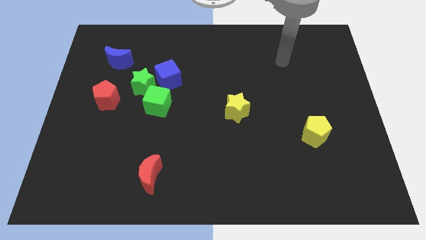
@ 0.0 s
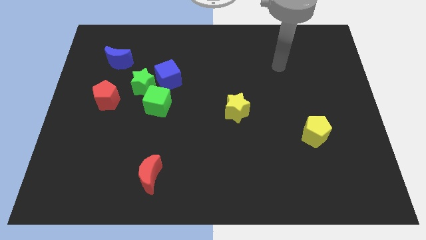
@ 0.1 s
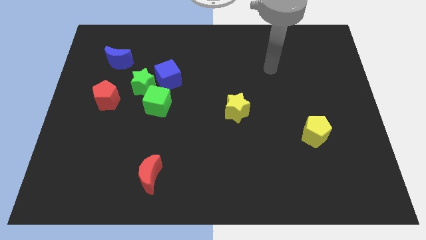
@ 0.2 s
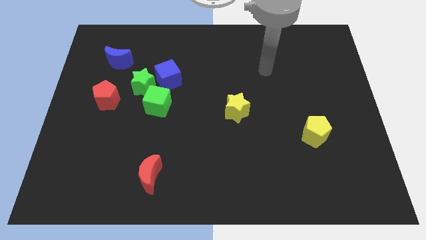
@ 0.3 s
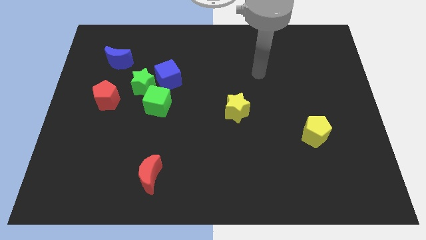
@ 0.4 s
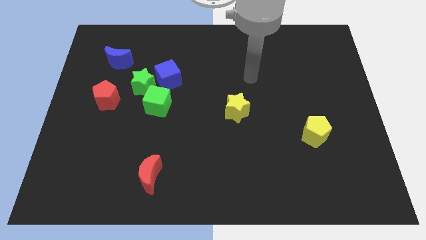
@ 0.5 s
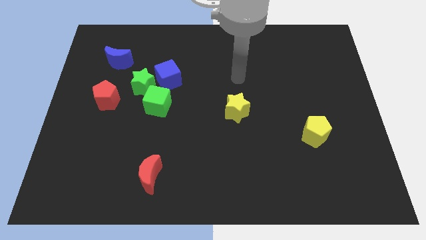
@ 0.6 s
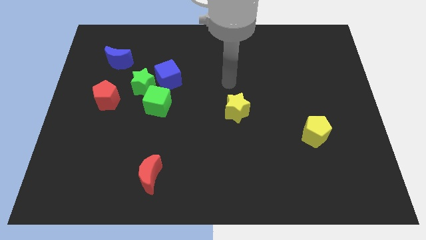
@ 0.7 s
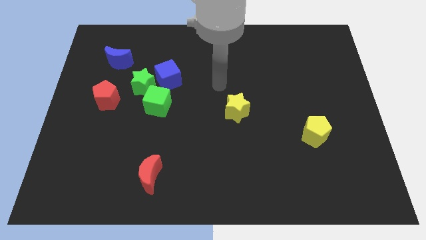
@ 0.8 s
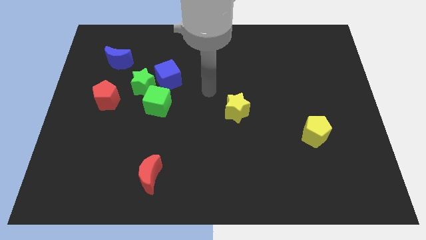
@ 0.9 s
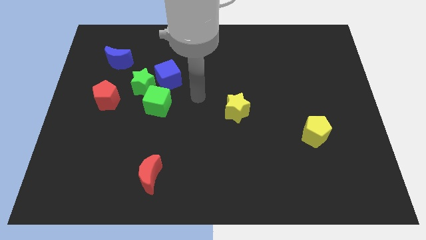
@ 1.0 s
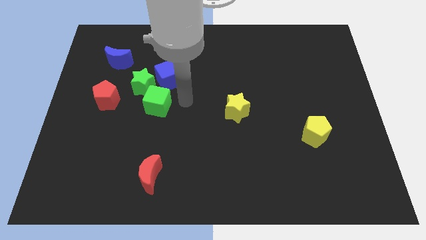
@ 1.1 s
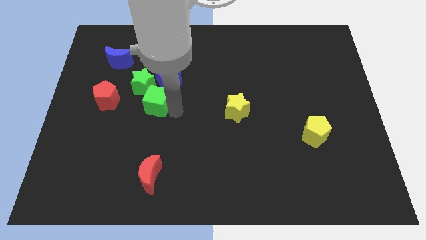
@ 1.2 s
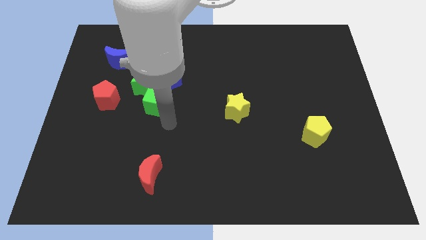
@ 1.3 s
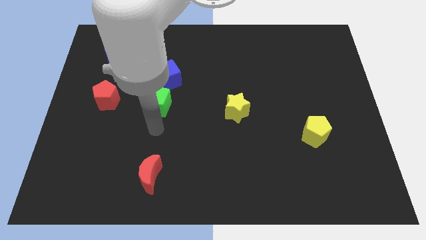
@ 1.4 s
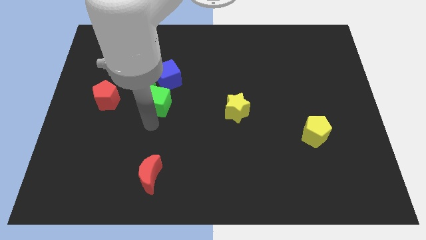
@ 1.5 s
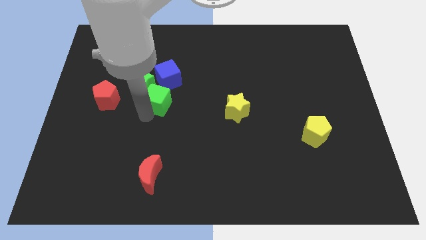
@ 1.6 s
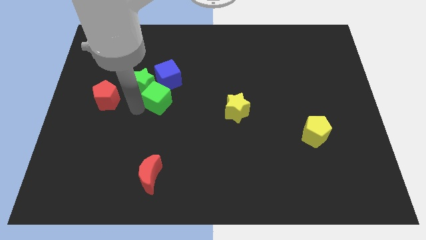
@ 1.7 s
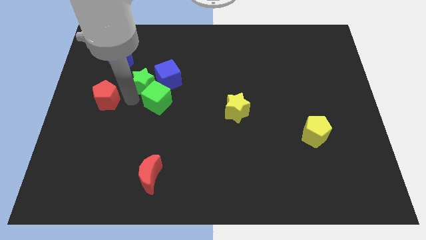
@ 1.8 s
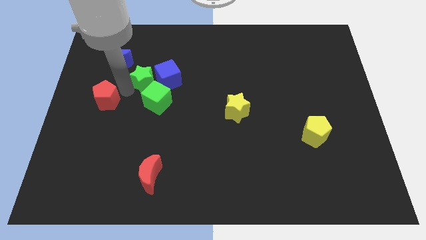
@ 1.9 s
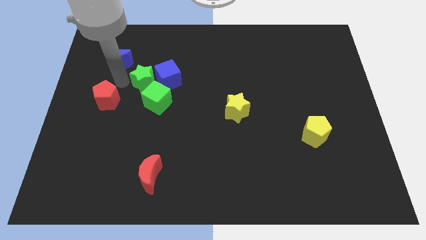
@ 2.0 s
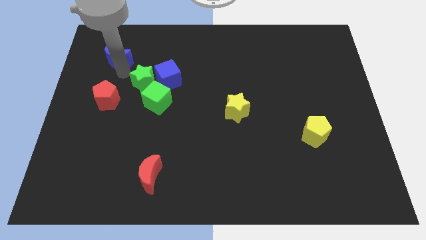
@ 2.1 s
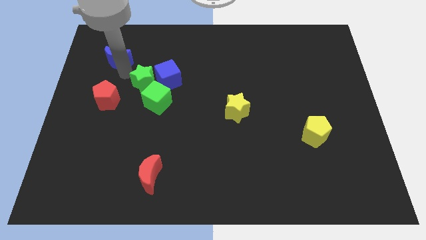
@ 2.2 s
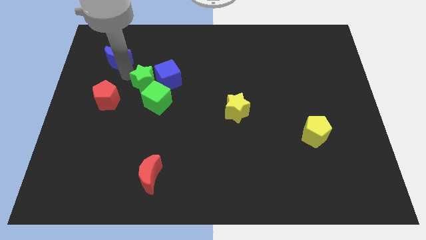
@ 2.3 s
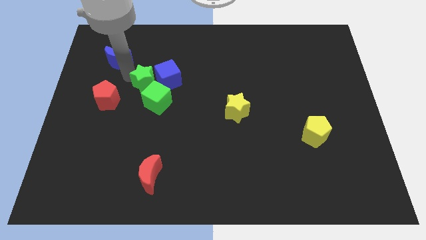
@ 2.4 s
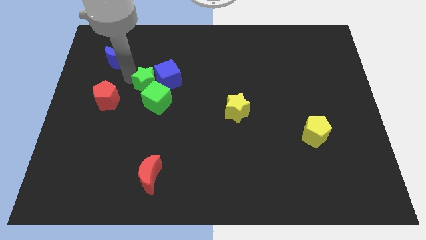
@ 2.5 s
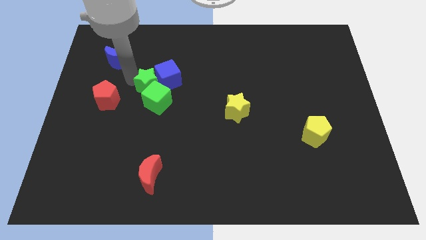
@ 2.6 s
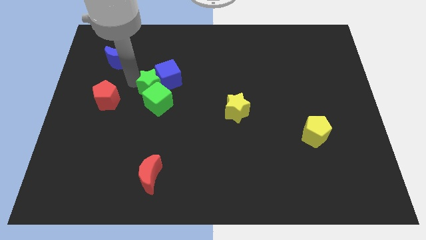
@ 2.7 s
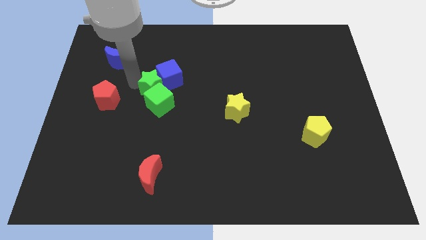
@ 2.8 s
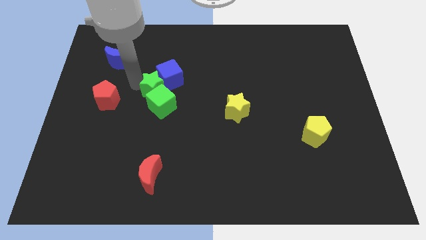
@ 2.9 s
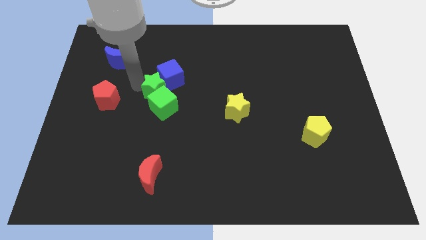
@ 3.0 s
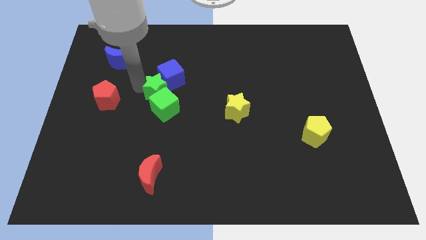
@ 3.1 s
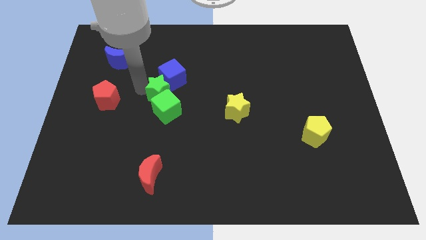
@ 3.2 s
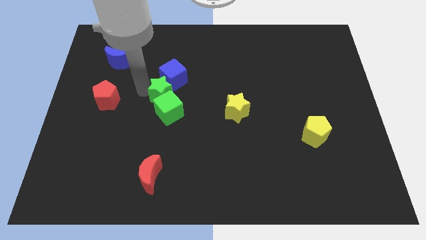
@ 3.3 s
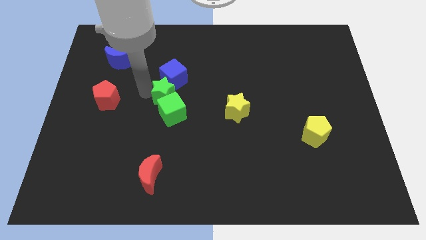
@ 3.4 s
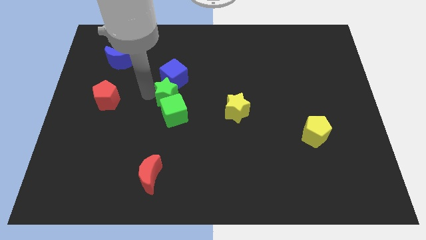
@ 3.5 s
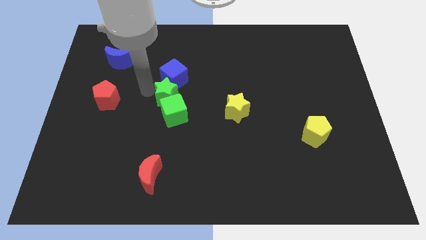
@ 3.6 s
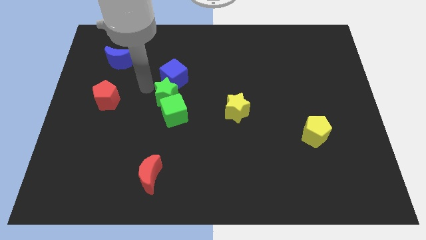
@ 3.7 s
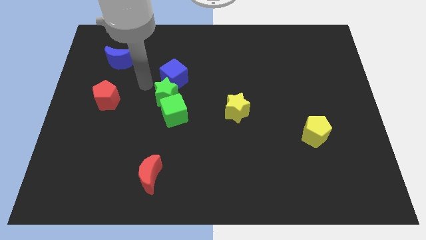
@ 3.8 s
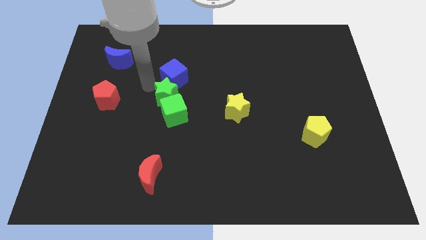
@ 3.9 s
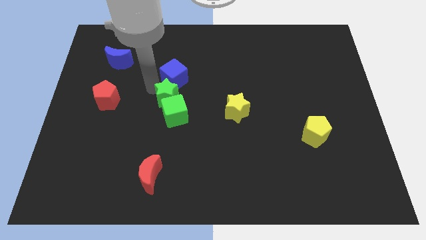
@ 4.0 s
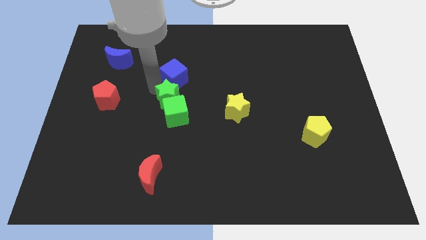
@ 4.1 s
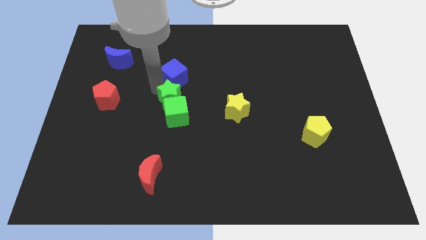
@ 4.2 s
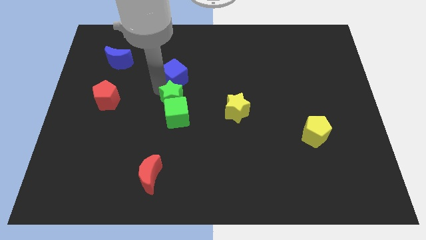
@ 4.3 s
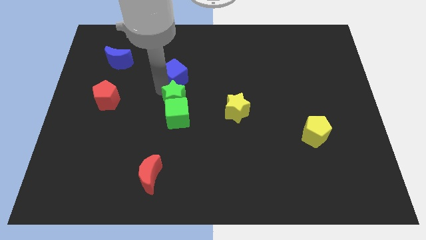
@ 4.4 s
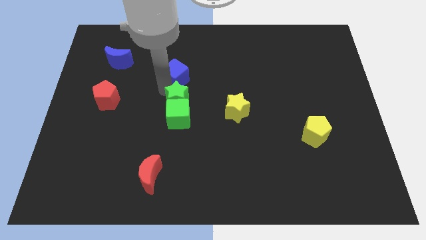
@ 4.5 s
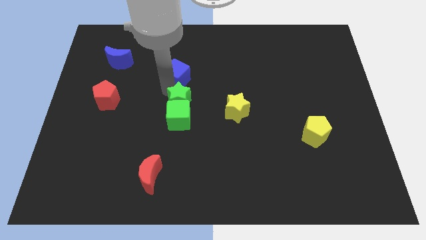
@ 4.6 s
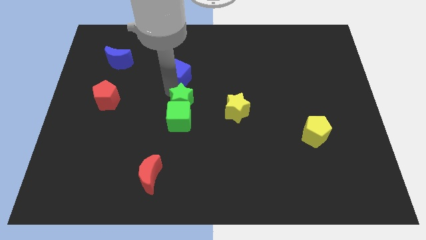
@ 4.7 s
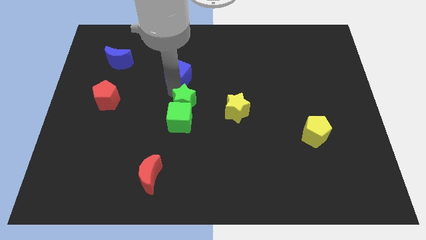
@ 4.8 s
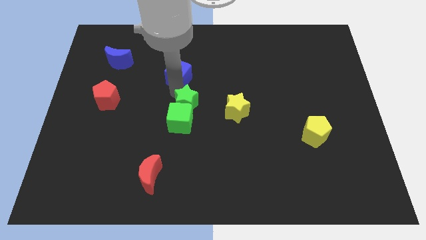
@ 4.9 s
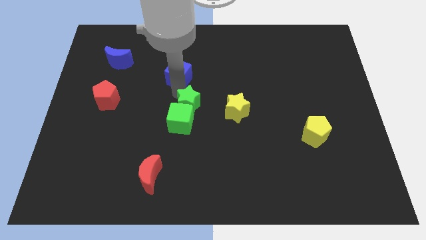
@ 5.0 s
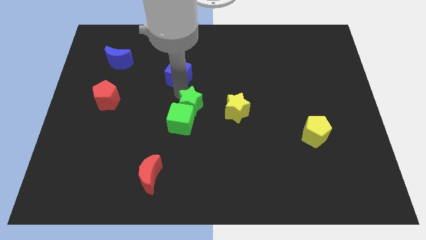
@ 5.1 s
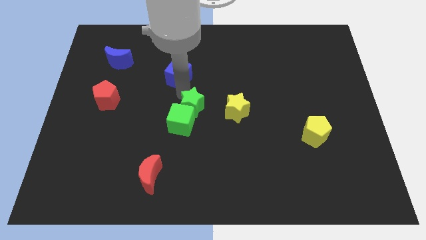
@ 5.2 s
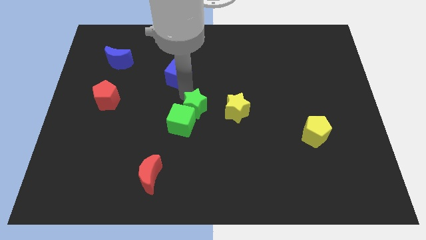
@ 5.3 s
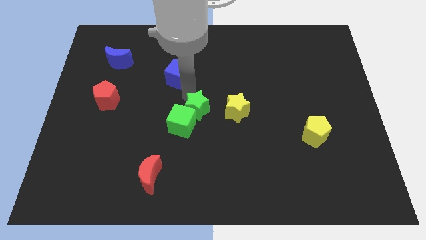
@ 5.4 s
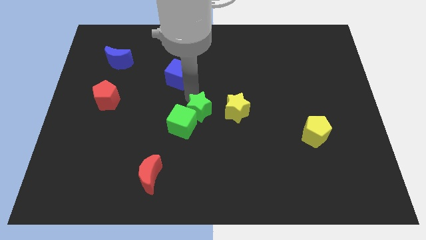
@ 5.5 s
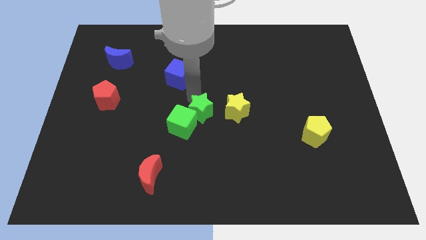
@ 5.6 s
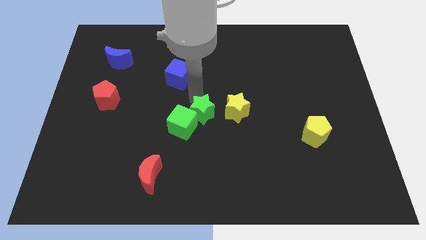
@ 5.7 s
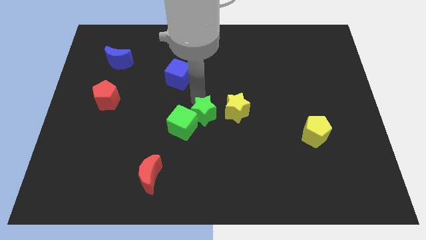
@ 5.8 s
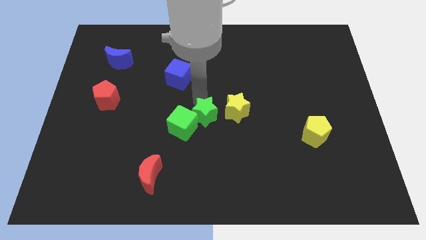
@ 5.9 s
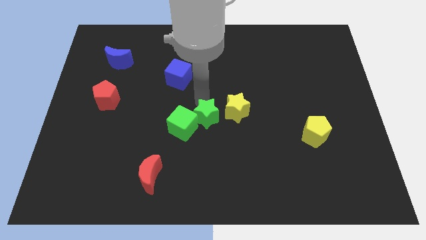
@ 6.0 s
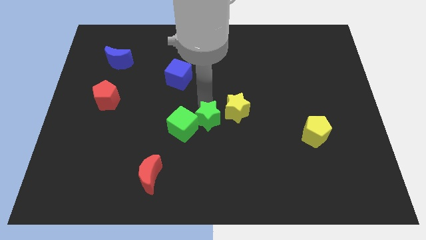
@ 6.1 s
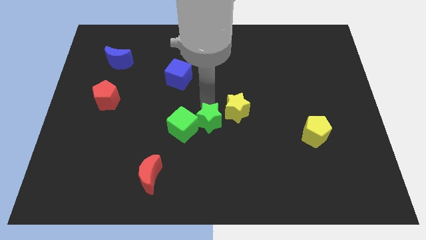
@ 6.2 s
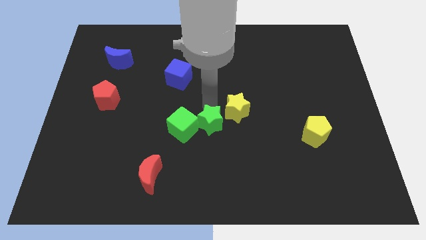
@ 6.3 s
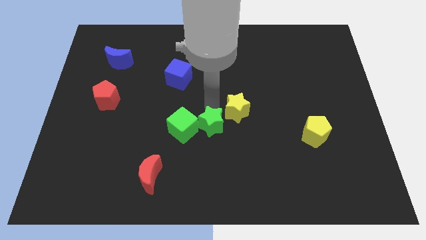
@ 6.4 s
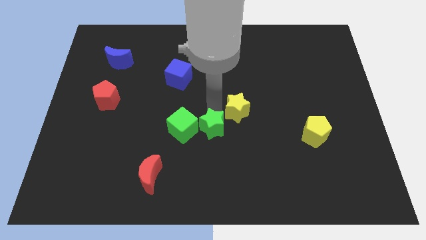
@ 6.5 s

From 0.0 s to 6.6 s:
move the green star diagonally down and right

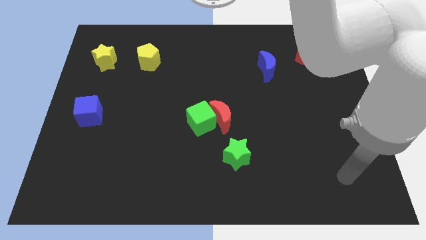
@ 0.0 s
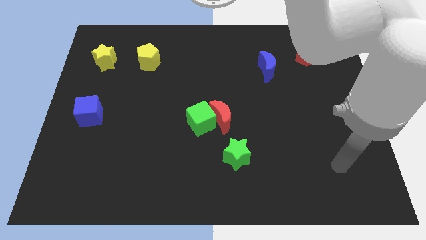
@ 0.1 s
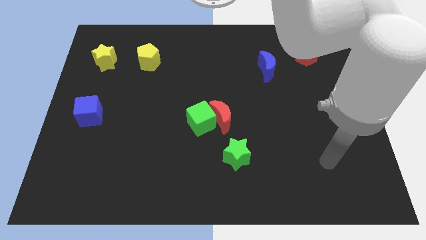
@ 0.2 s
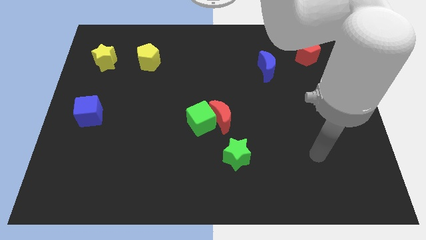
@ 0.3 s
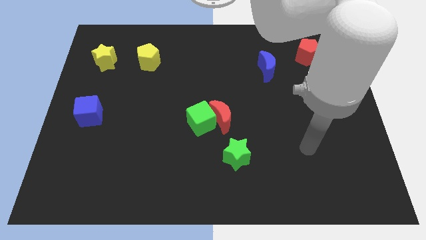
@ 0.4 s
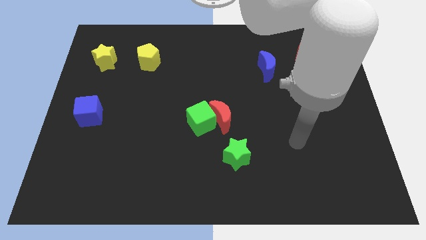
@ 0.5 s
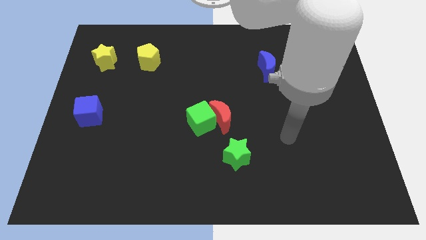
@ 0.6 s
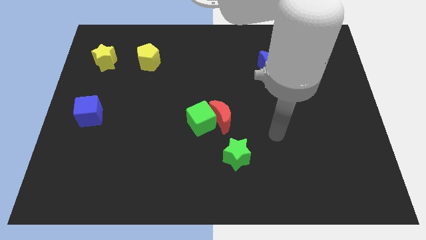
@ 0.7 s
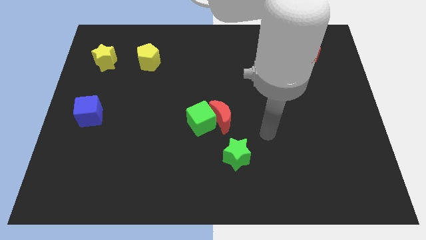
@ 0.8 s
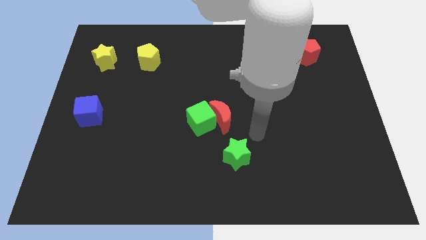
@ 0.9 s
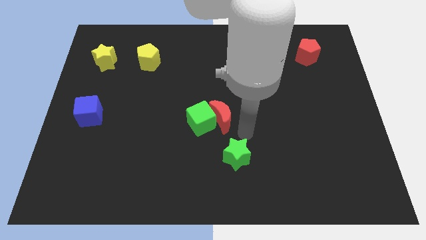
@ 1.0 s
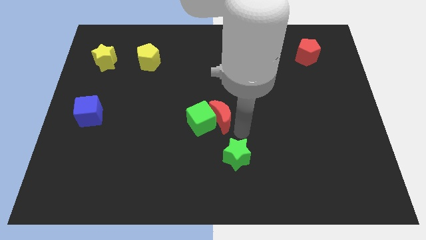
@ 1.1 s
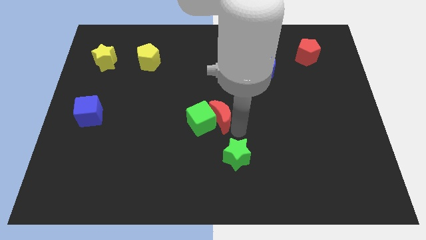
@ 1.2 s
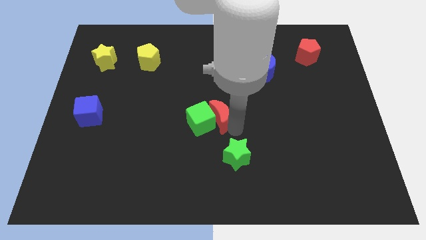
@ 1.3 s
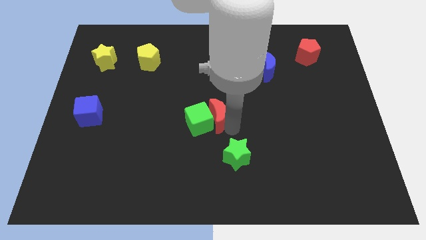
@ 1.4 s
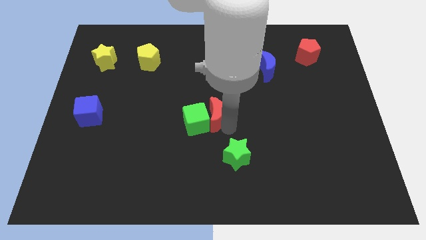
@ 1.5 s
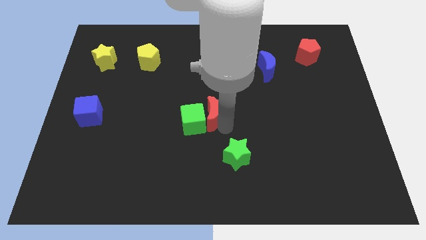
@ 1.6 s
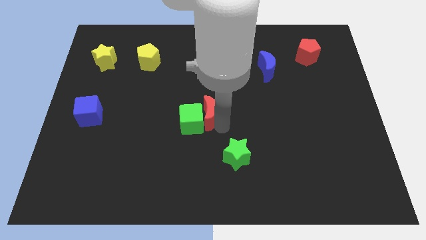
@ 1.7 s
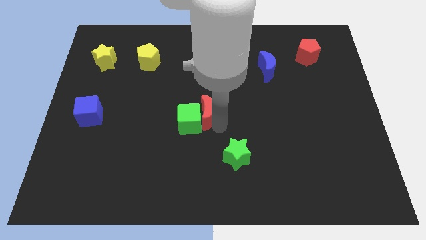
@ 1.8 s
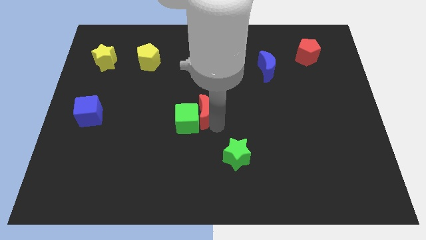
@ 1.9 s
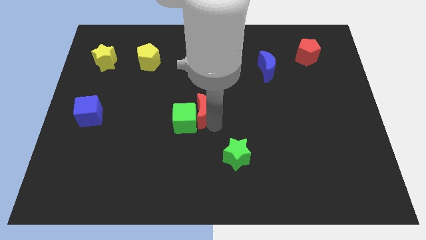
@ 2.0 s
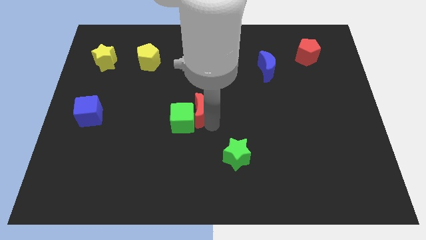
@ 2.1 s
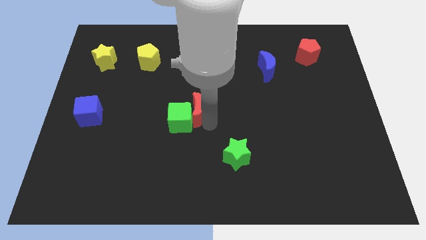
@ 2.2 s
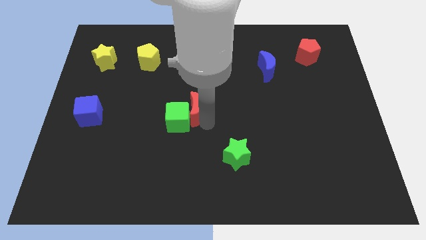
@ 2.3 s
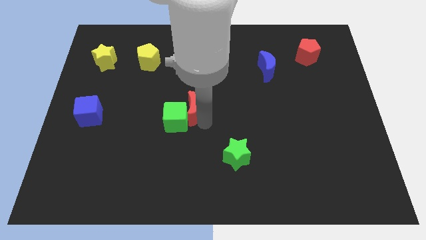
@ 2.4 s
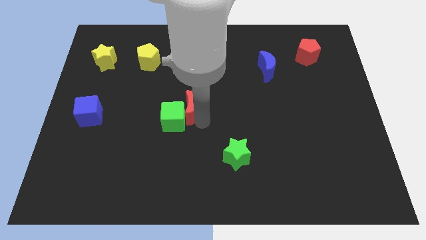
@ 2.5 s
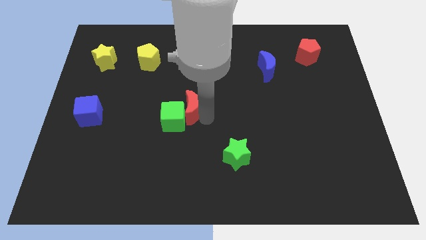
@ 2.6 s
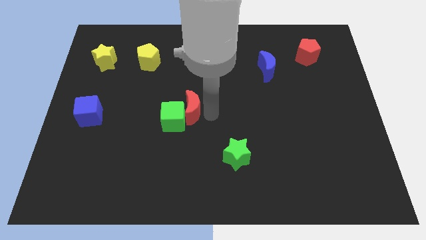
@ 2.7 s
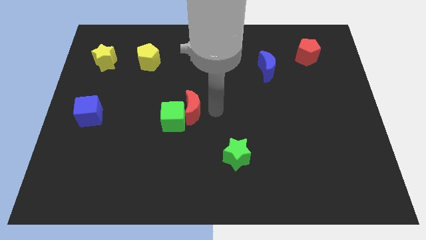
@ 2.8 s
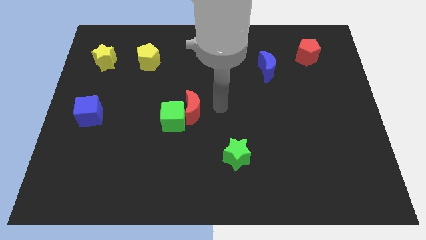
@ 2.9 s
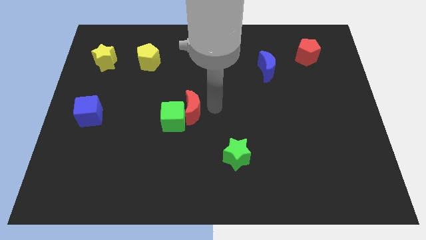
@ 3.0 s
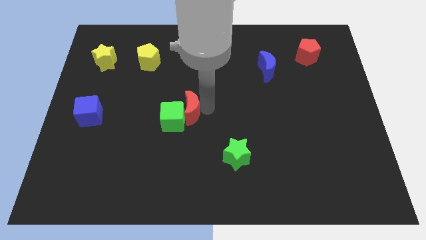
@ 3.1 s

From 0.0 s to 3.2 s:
move the red moon to the left a little
